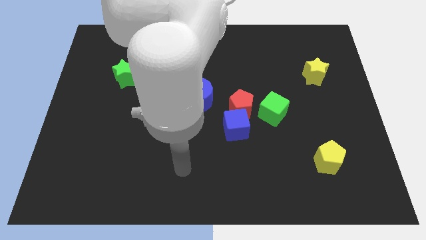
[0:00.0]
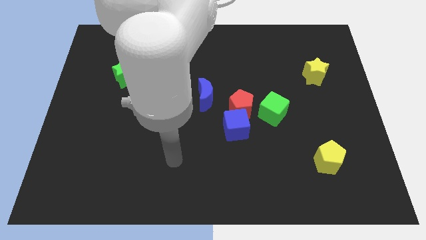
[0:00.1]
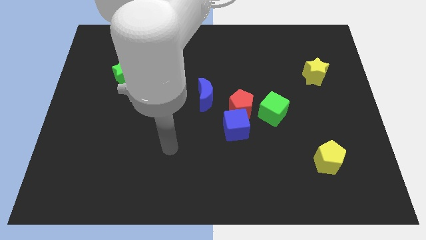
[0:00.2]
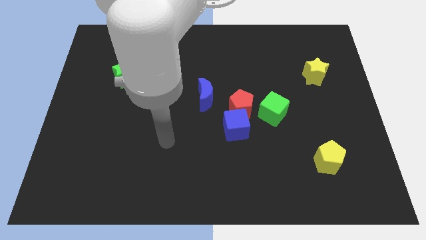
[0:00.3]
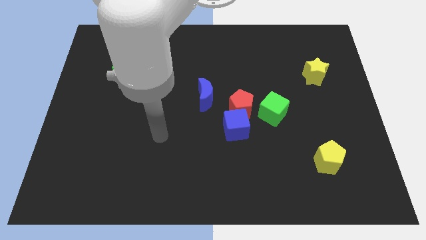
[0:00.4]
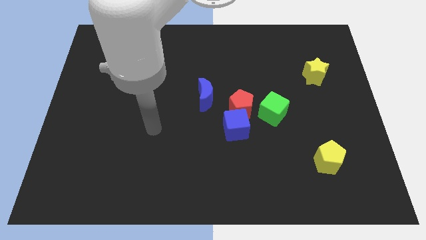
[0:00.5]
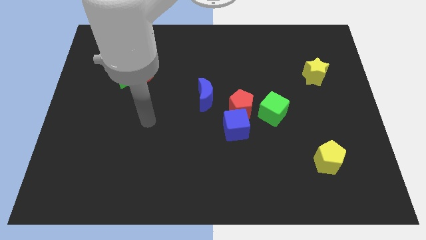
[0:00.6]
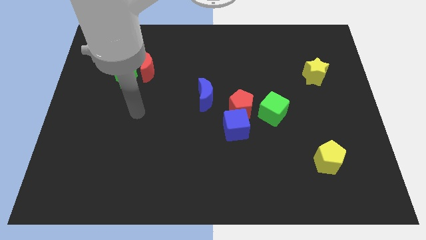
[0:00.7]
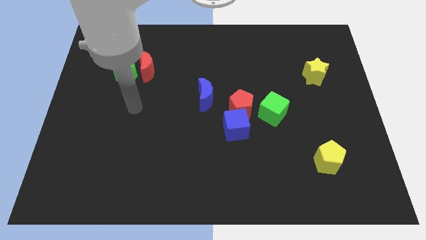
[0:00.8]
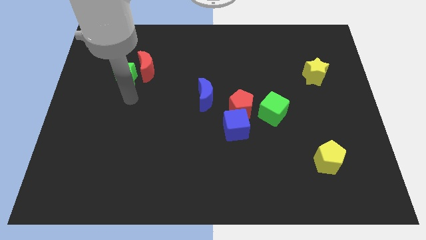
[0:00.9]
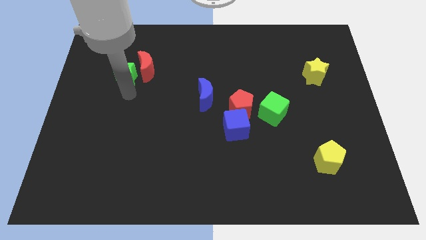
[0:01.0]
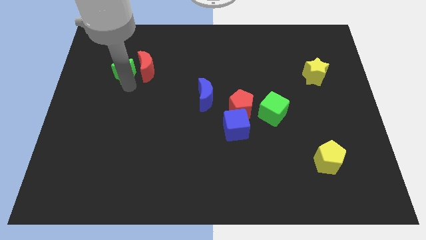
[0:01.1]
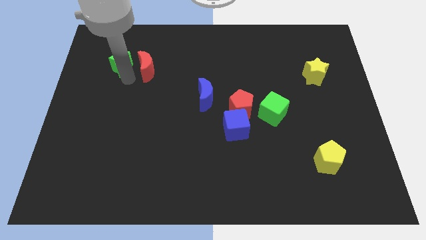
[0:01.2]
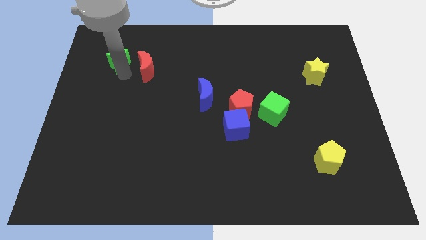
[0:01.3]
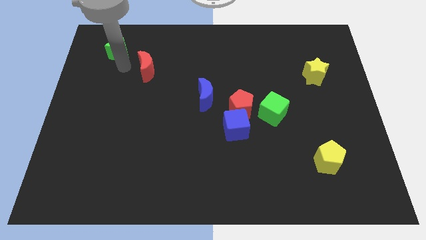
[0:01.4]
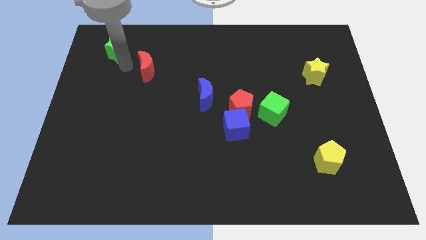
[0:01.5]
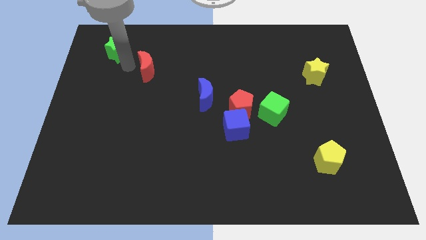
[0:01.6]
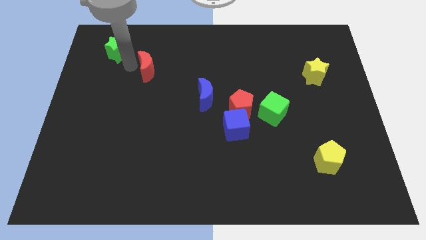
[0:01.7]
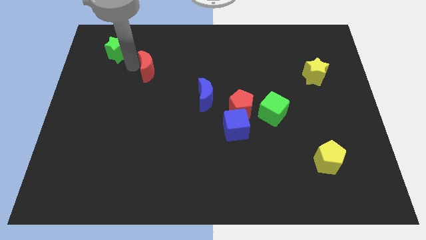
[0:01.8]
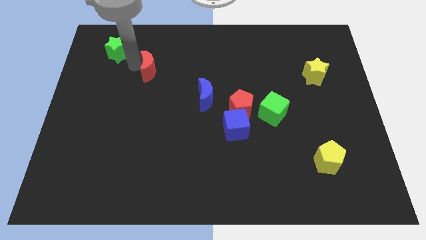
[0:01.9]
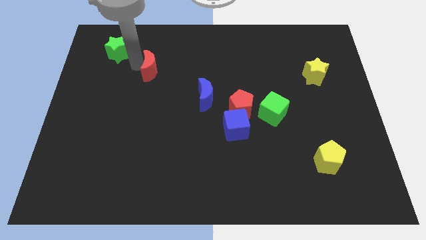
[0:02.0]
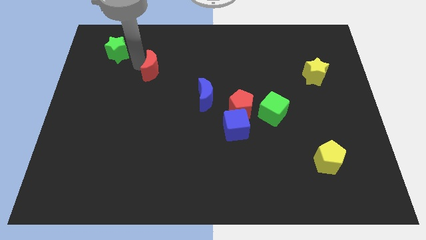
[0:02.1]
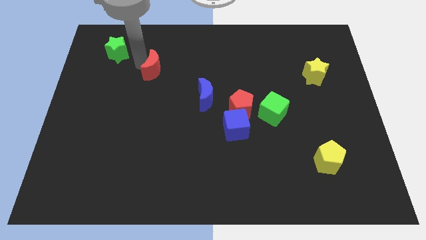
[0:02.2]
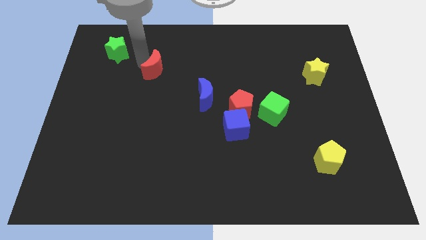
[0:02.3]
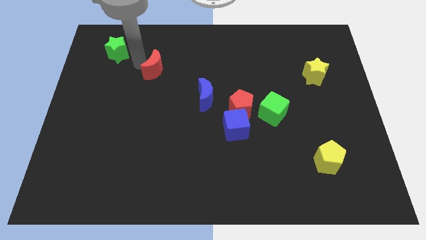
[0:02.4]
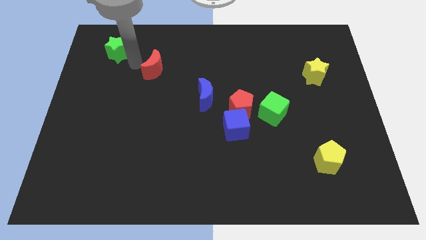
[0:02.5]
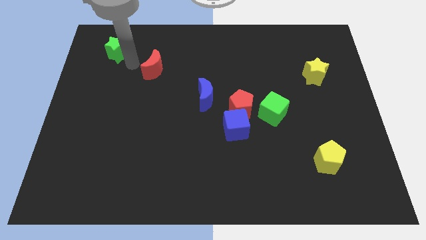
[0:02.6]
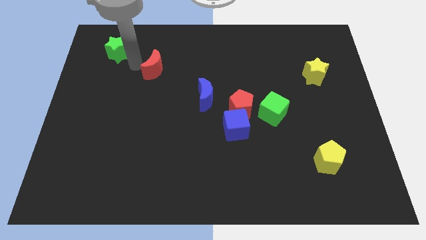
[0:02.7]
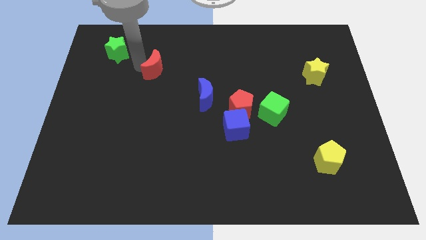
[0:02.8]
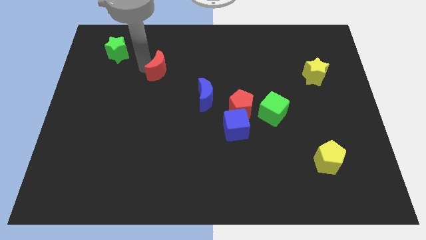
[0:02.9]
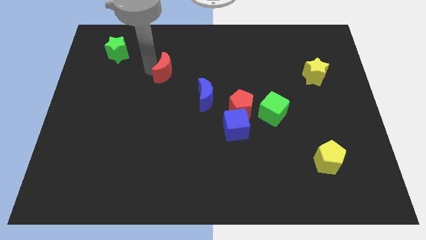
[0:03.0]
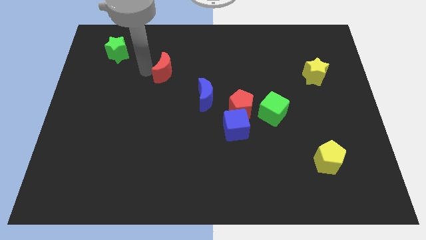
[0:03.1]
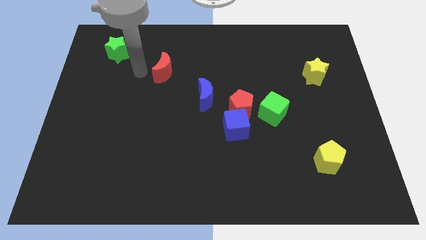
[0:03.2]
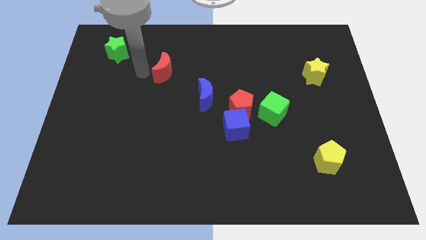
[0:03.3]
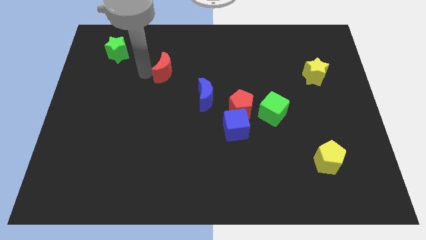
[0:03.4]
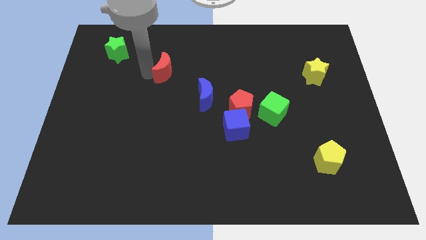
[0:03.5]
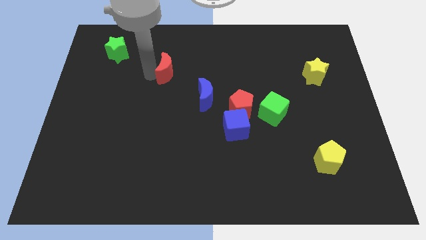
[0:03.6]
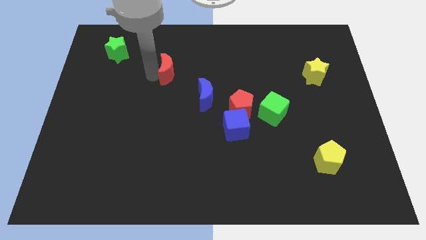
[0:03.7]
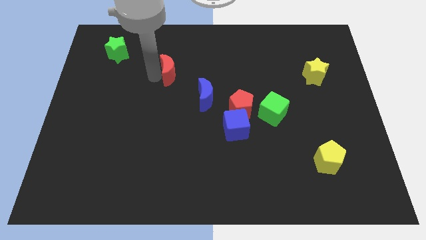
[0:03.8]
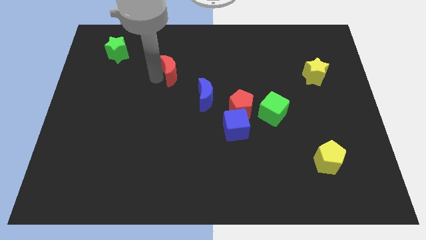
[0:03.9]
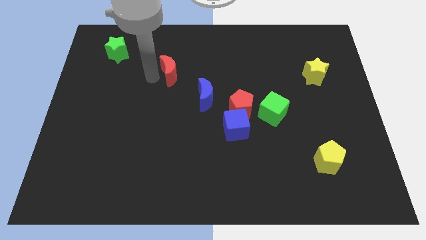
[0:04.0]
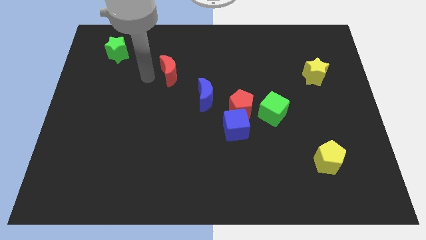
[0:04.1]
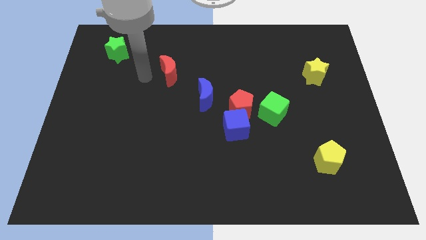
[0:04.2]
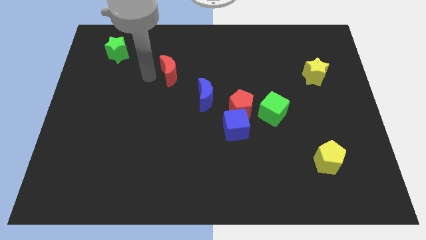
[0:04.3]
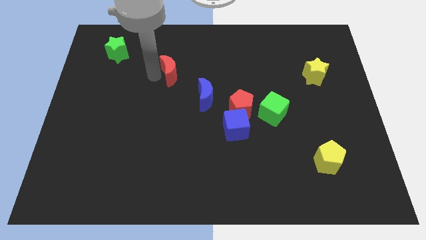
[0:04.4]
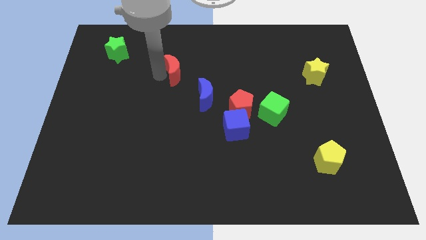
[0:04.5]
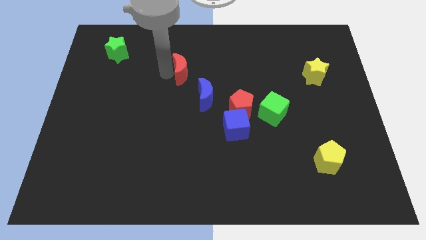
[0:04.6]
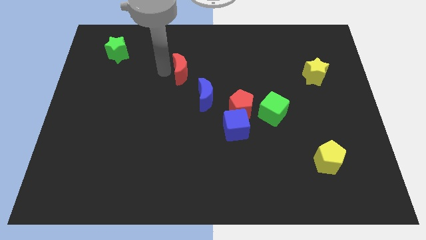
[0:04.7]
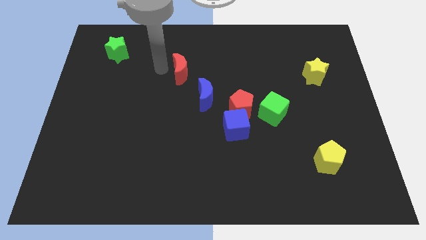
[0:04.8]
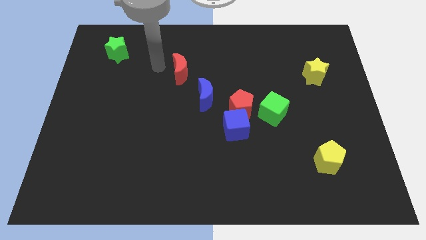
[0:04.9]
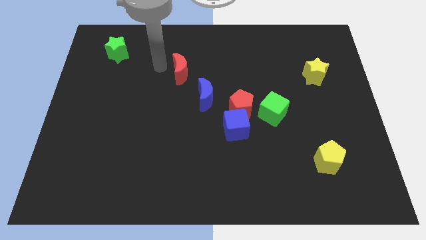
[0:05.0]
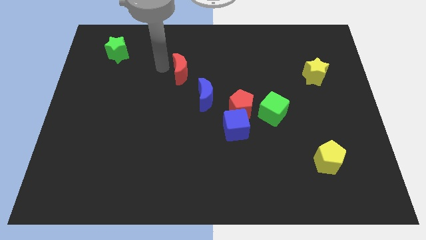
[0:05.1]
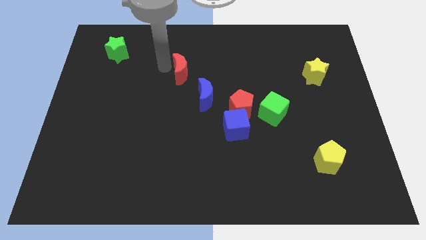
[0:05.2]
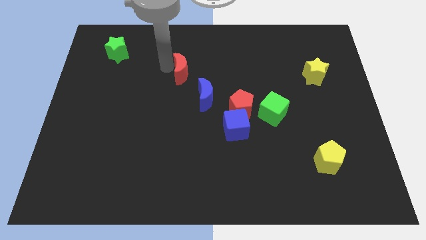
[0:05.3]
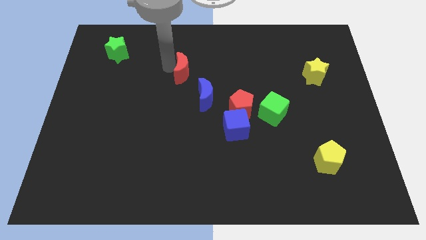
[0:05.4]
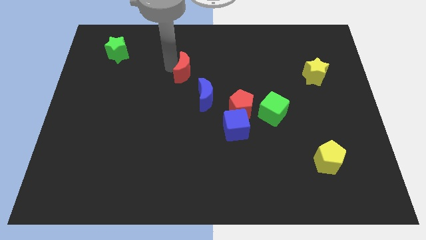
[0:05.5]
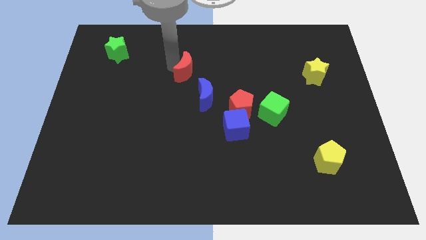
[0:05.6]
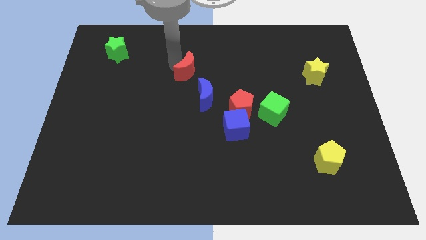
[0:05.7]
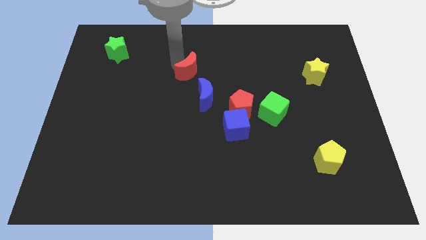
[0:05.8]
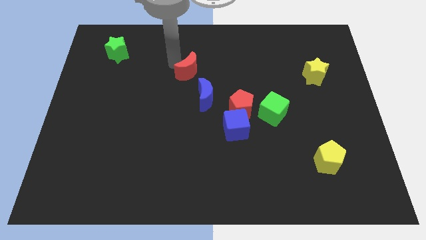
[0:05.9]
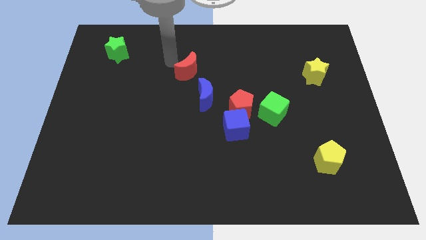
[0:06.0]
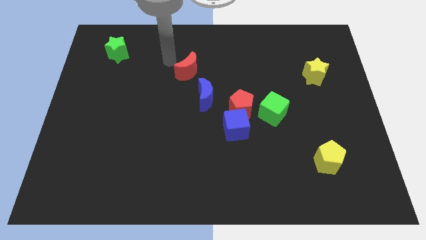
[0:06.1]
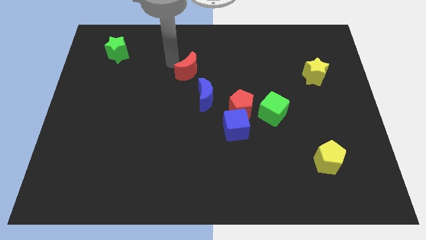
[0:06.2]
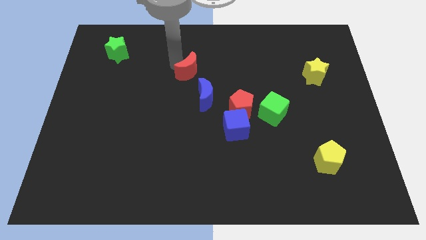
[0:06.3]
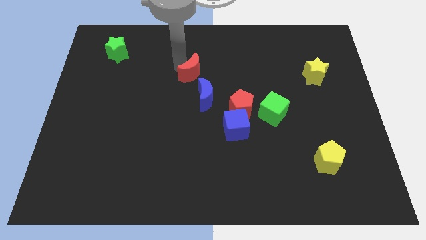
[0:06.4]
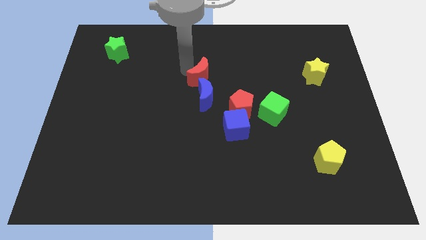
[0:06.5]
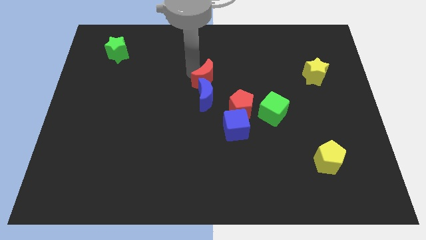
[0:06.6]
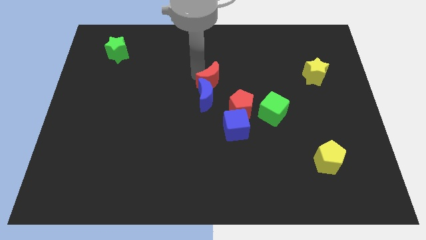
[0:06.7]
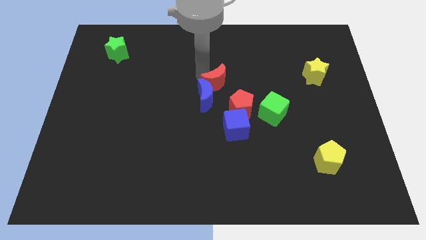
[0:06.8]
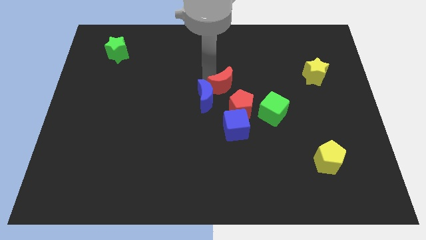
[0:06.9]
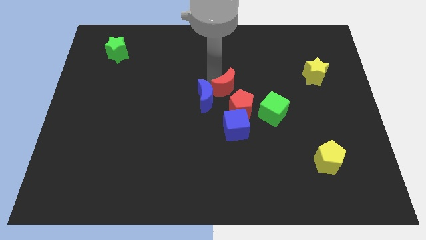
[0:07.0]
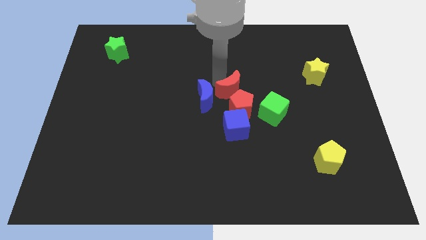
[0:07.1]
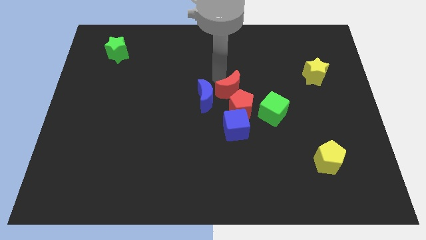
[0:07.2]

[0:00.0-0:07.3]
put the red moon close to the red pentagon
